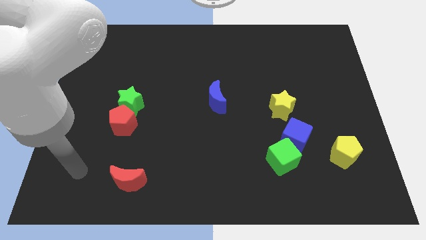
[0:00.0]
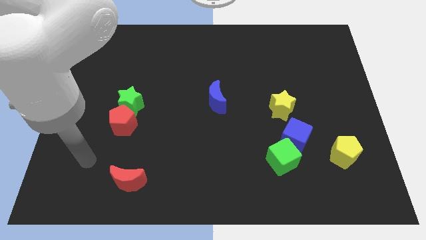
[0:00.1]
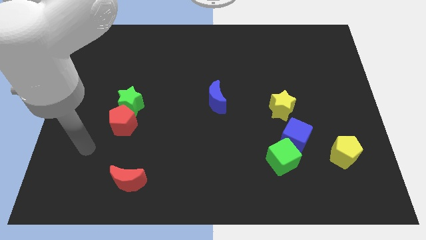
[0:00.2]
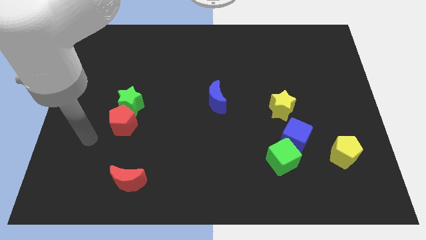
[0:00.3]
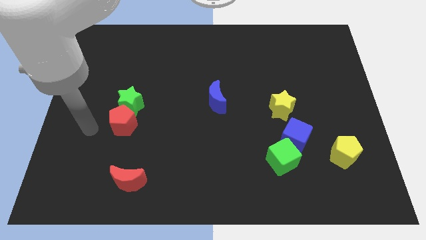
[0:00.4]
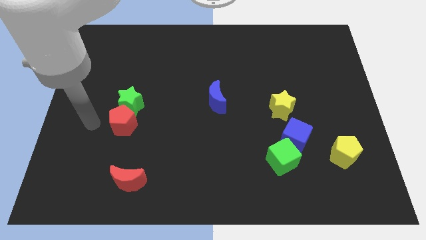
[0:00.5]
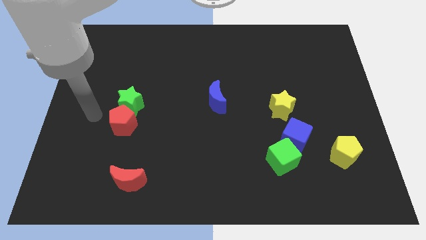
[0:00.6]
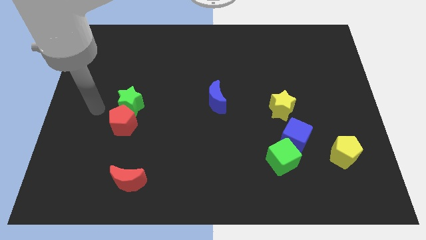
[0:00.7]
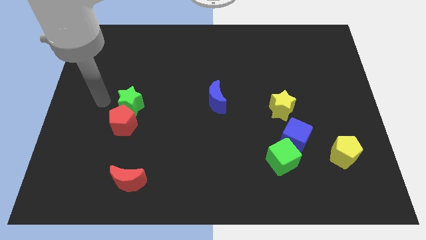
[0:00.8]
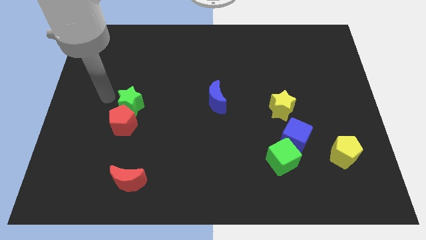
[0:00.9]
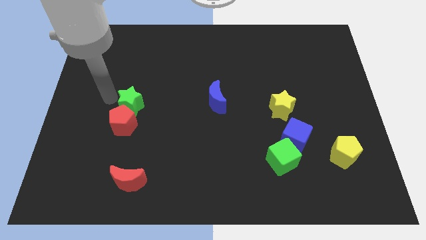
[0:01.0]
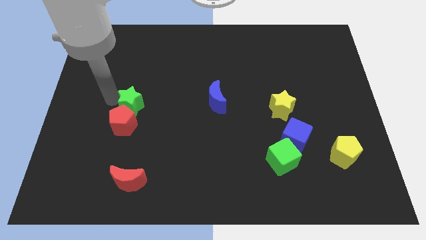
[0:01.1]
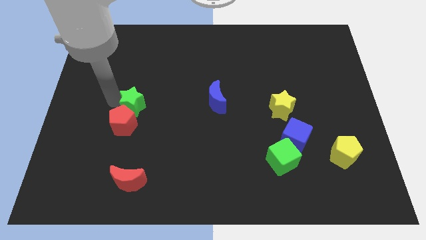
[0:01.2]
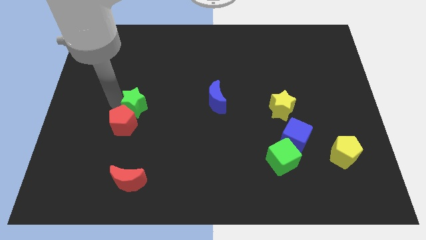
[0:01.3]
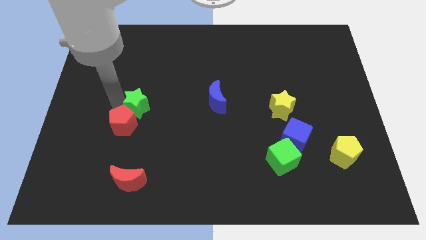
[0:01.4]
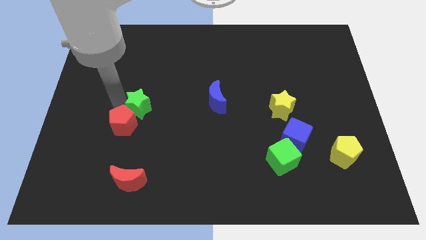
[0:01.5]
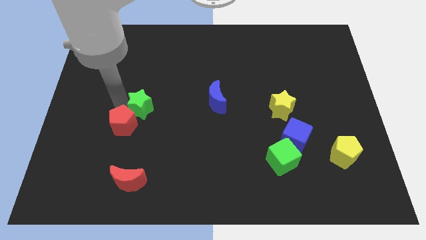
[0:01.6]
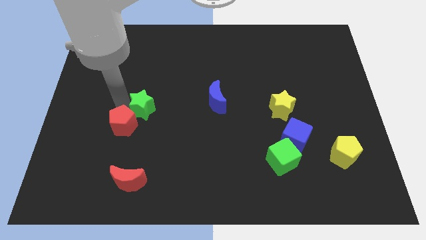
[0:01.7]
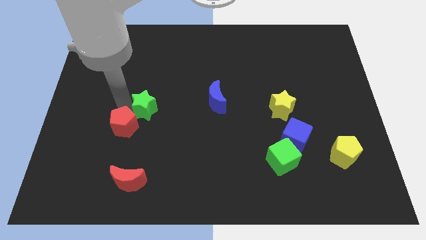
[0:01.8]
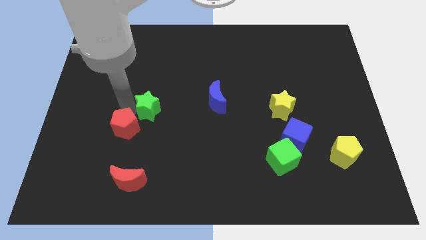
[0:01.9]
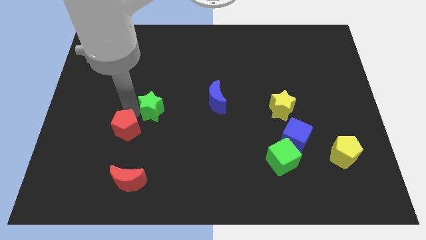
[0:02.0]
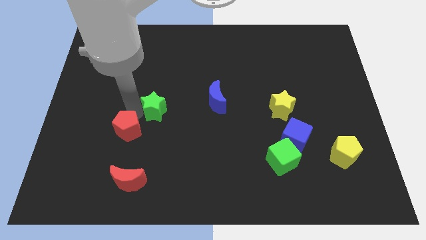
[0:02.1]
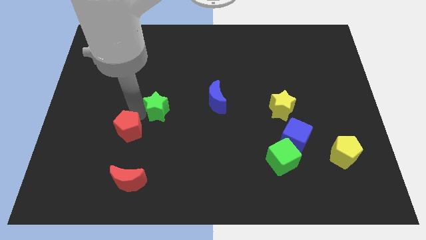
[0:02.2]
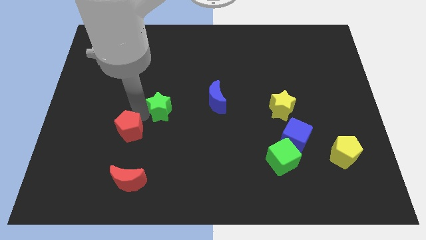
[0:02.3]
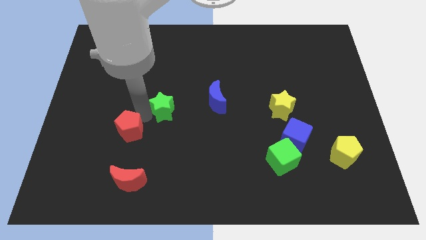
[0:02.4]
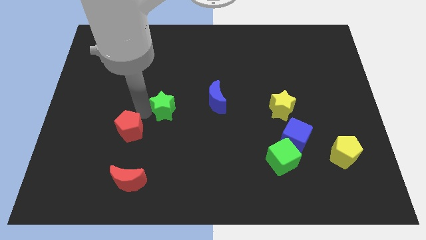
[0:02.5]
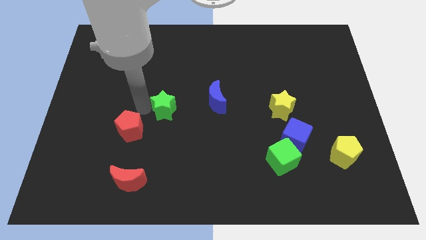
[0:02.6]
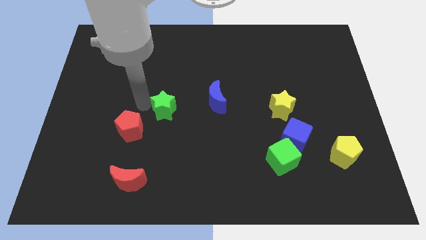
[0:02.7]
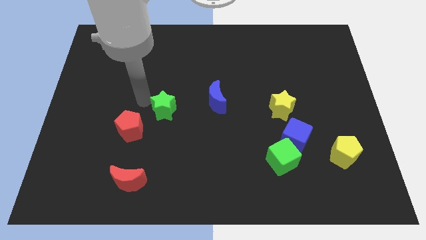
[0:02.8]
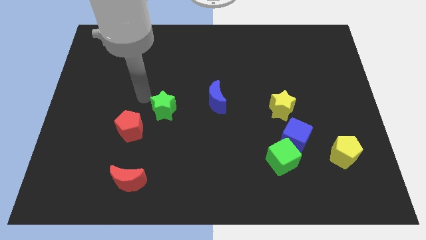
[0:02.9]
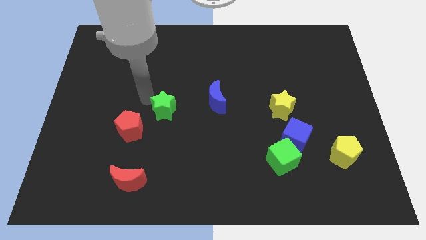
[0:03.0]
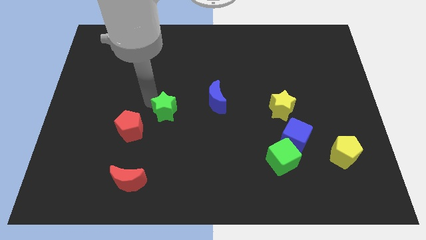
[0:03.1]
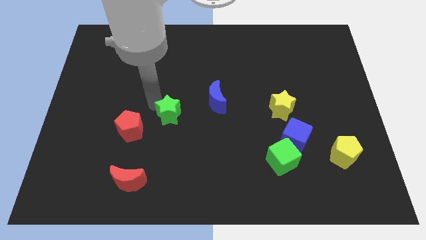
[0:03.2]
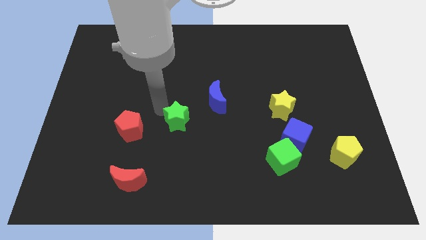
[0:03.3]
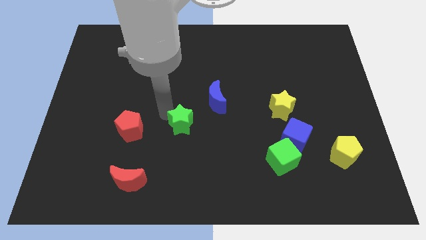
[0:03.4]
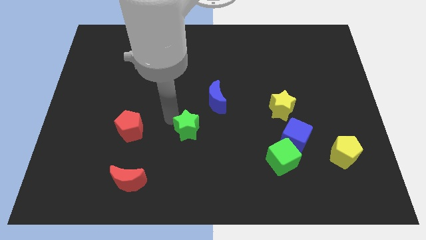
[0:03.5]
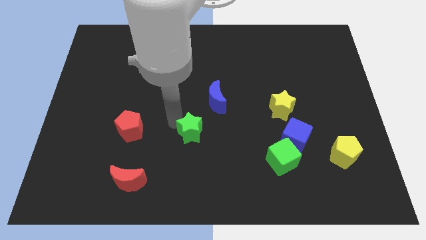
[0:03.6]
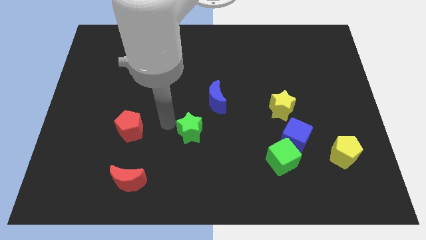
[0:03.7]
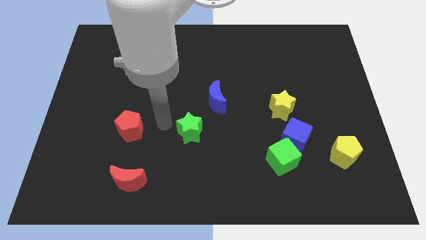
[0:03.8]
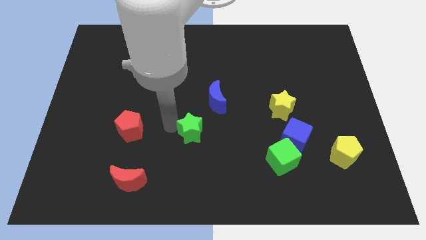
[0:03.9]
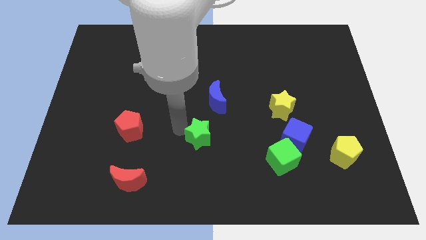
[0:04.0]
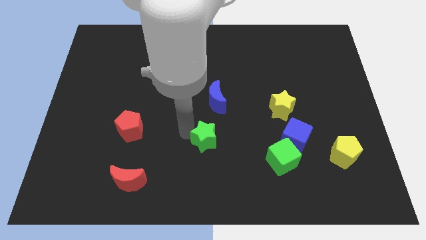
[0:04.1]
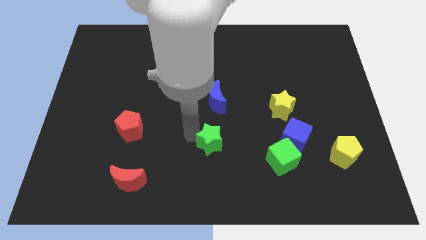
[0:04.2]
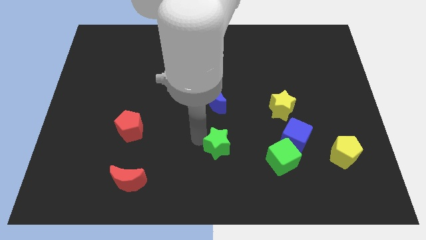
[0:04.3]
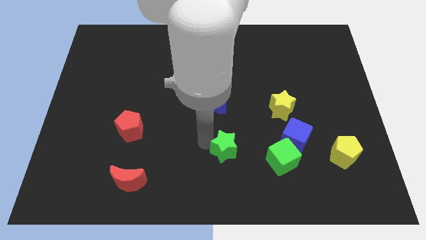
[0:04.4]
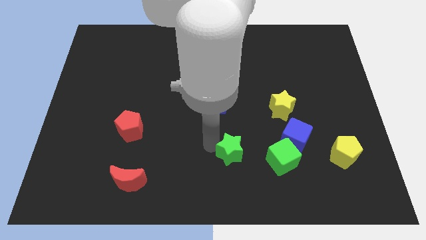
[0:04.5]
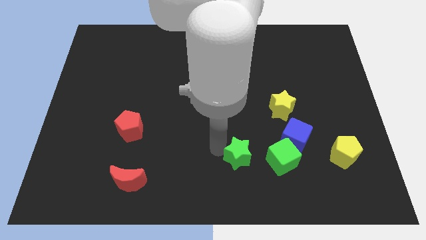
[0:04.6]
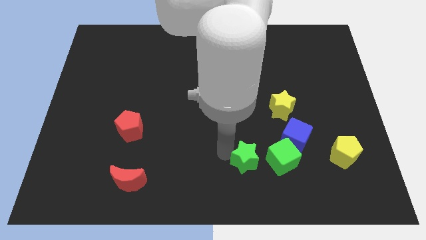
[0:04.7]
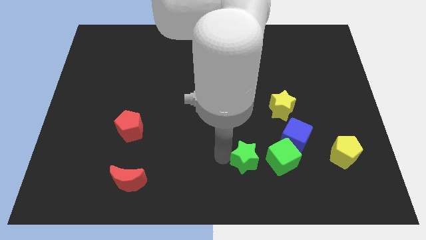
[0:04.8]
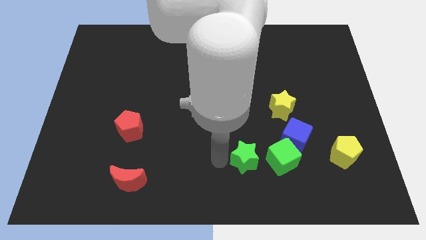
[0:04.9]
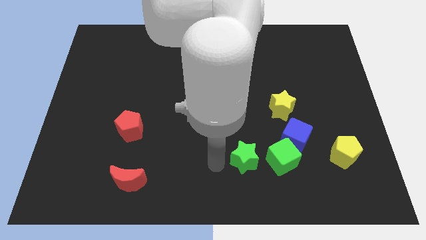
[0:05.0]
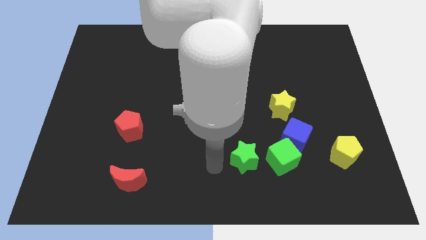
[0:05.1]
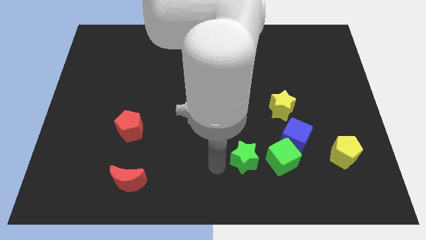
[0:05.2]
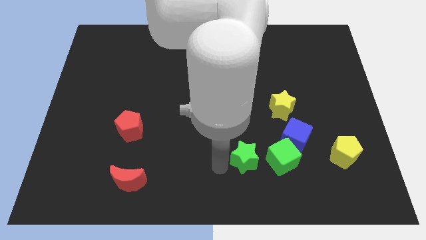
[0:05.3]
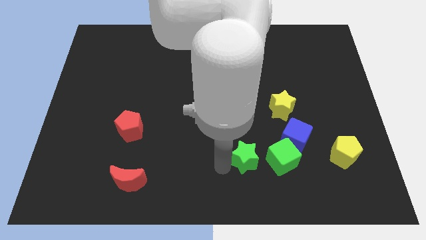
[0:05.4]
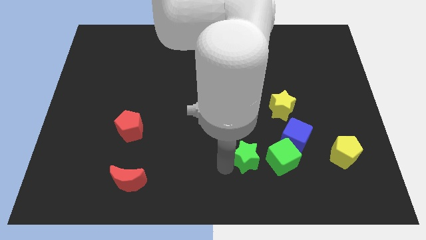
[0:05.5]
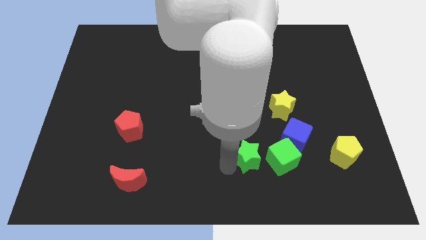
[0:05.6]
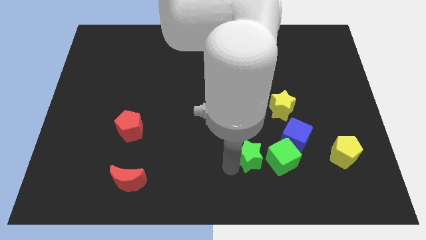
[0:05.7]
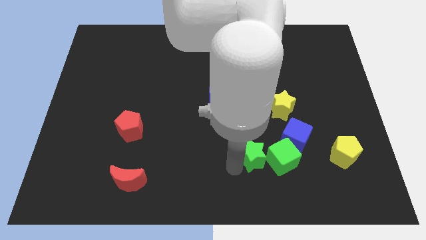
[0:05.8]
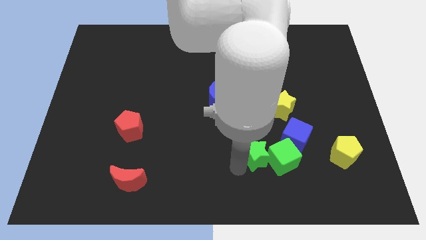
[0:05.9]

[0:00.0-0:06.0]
put the green star next to the green cube

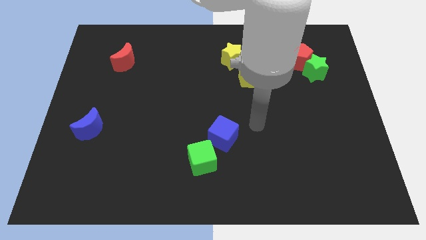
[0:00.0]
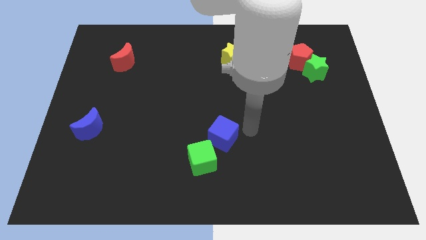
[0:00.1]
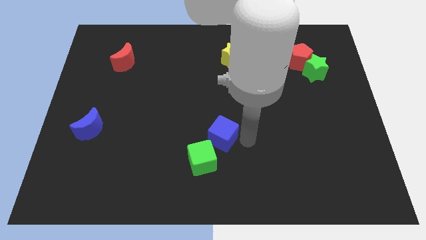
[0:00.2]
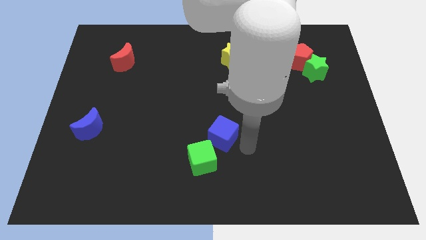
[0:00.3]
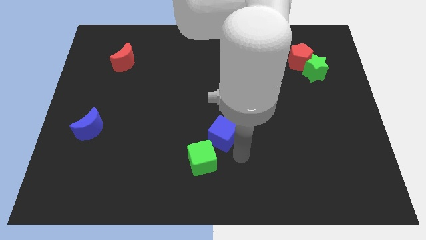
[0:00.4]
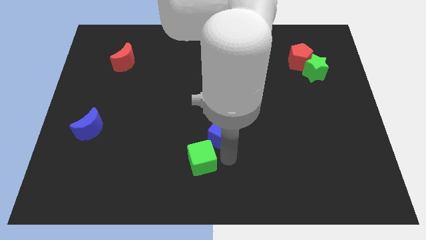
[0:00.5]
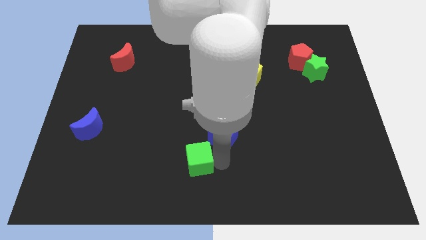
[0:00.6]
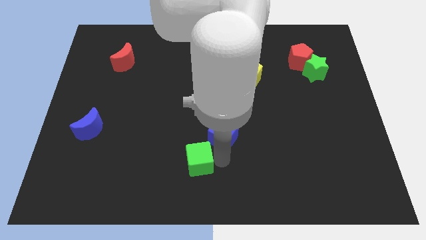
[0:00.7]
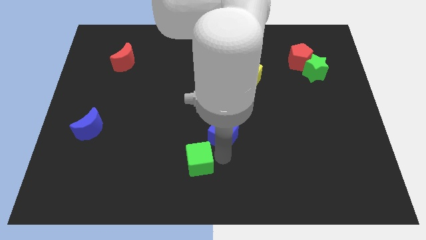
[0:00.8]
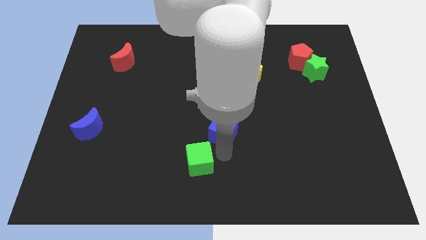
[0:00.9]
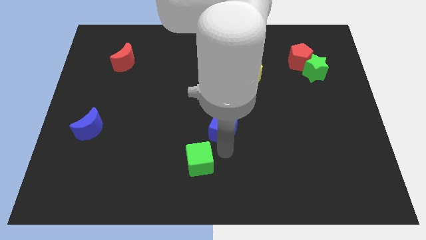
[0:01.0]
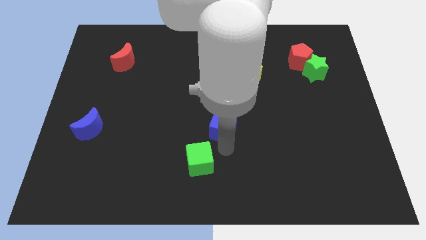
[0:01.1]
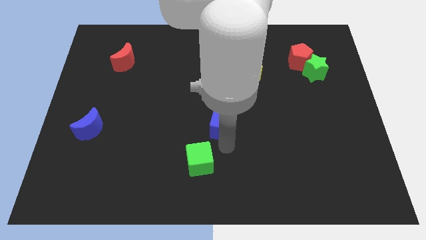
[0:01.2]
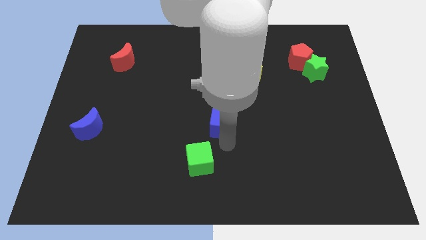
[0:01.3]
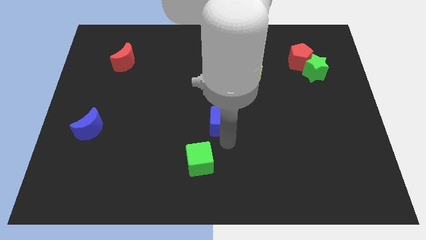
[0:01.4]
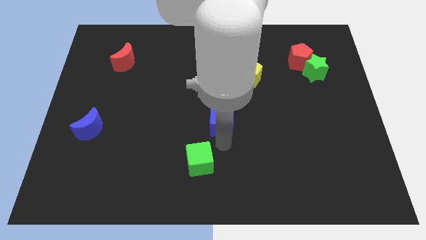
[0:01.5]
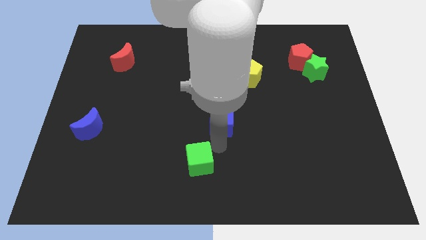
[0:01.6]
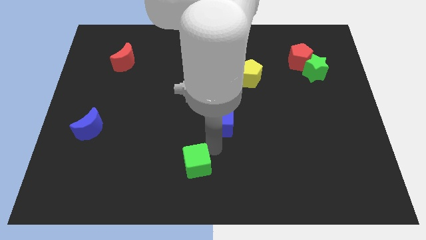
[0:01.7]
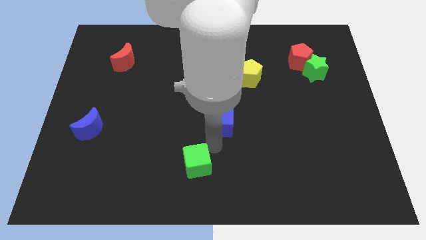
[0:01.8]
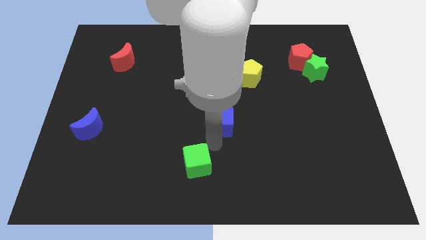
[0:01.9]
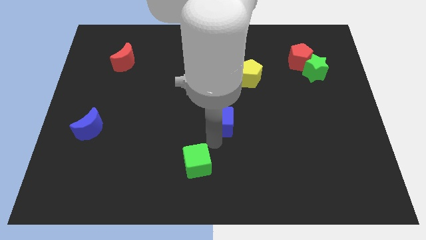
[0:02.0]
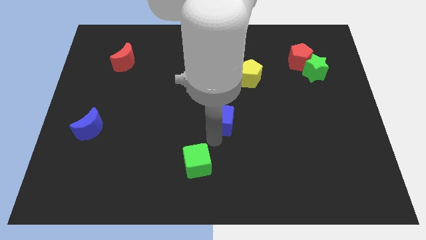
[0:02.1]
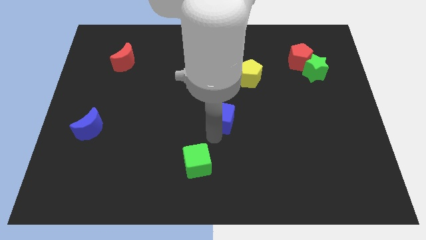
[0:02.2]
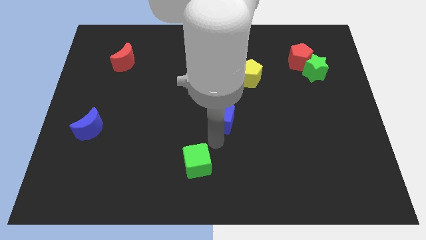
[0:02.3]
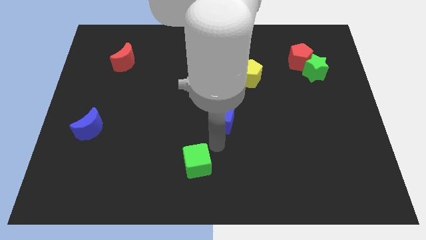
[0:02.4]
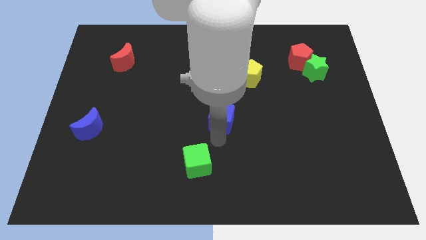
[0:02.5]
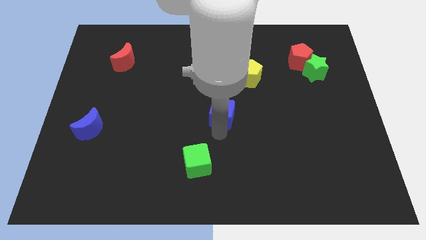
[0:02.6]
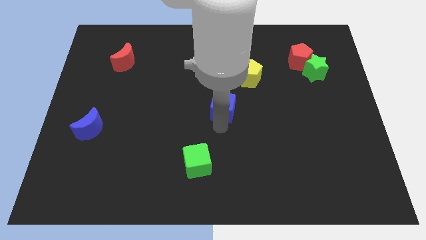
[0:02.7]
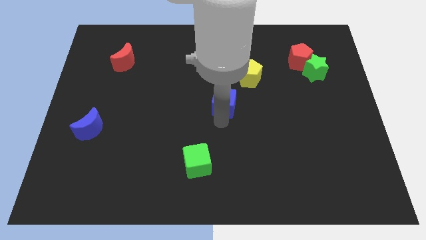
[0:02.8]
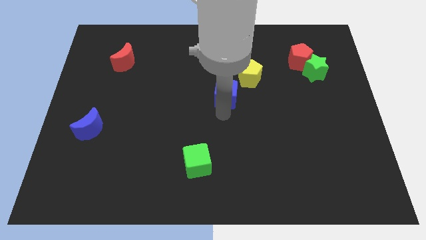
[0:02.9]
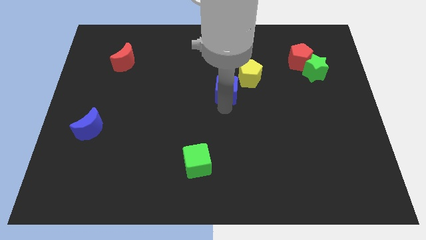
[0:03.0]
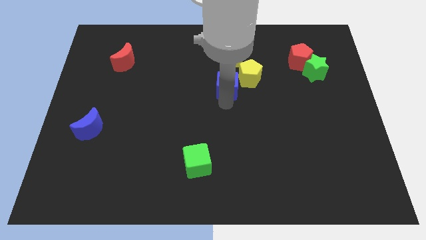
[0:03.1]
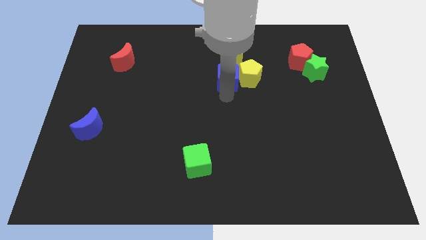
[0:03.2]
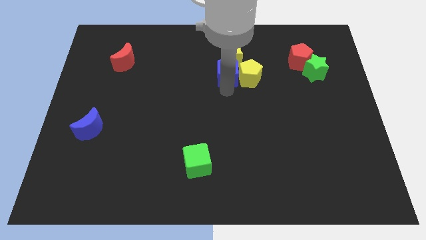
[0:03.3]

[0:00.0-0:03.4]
slide the blue cube towards the yellow star
